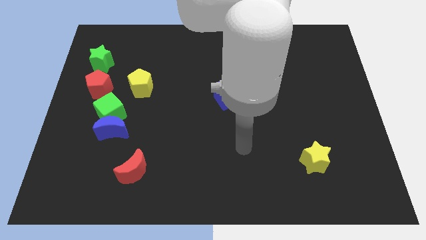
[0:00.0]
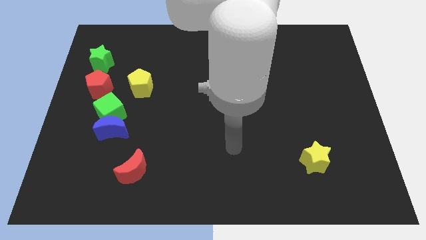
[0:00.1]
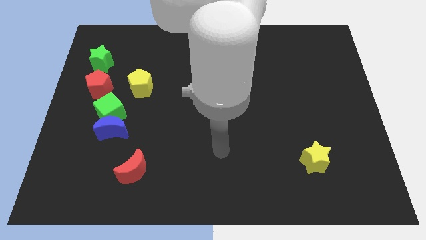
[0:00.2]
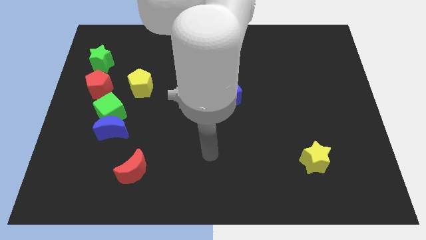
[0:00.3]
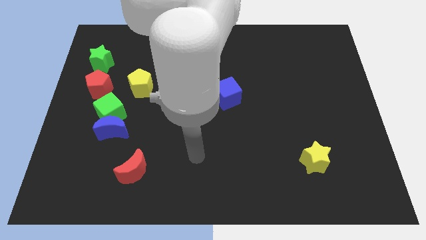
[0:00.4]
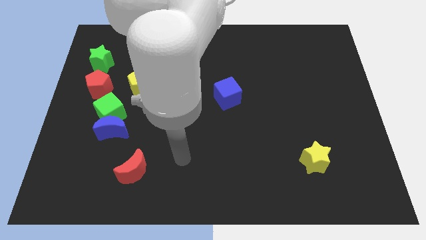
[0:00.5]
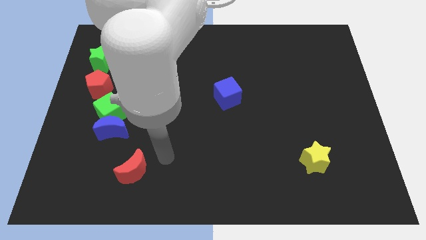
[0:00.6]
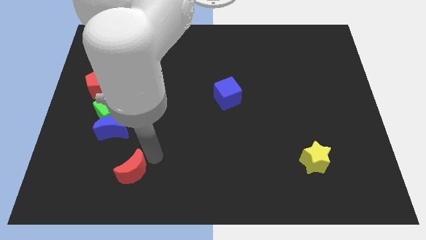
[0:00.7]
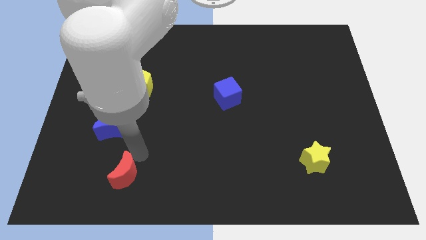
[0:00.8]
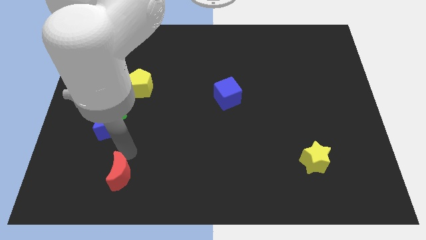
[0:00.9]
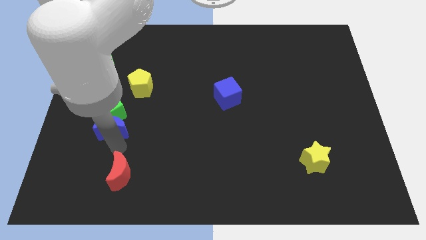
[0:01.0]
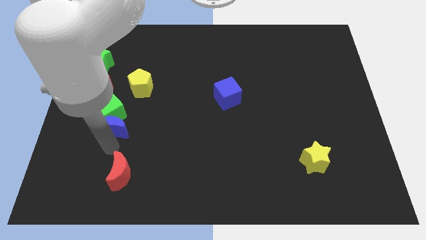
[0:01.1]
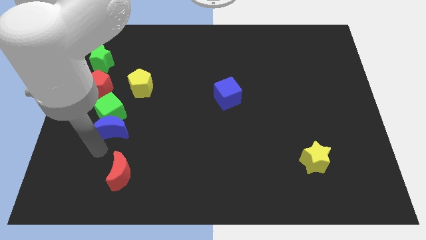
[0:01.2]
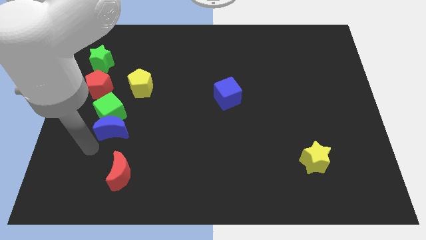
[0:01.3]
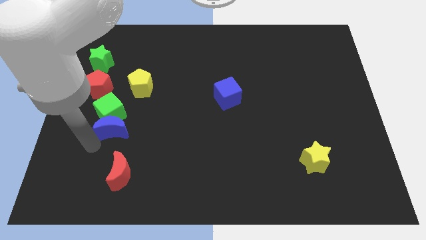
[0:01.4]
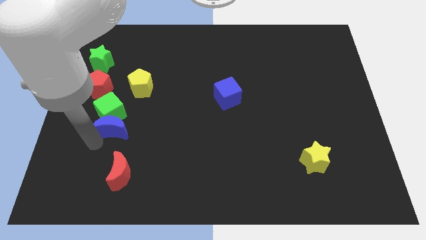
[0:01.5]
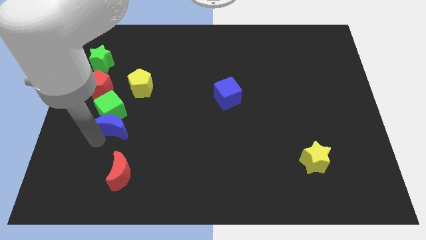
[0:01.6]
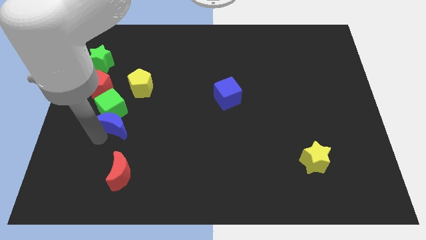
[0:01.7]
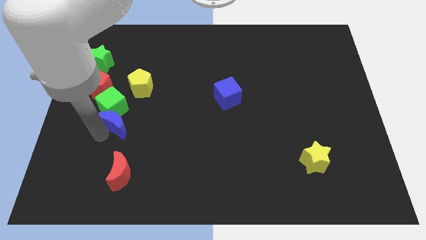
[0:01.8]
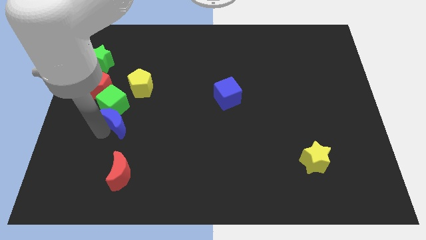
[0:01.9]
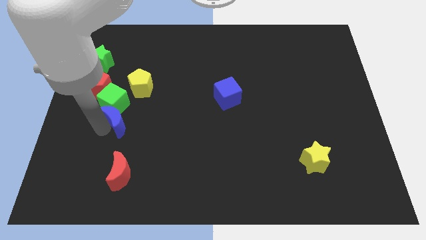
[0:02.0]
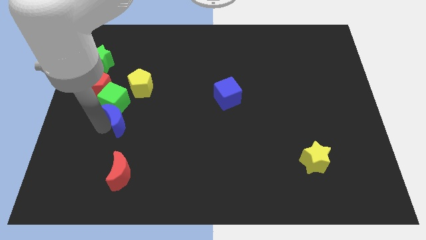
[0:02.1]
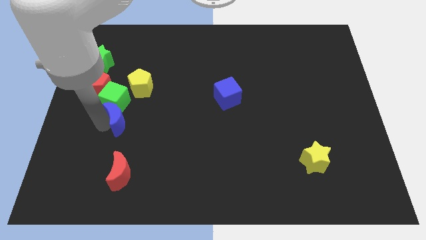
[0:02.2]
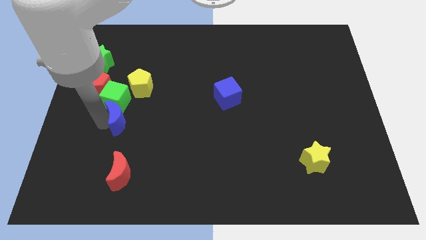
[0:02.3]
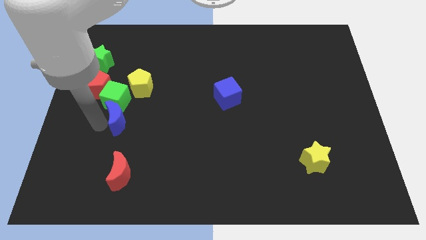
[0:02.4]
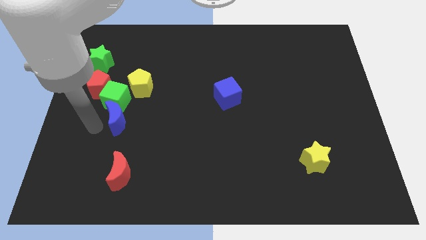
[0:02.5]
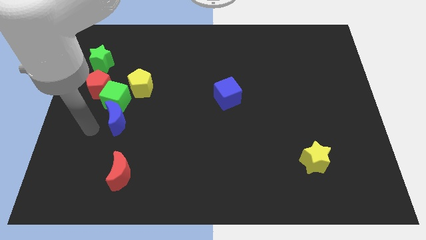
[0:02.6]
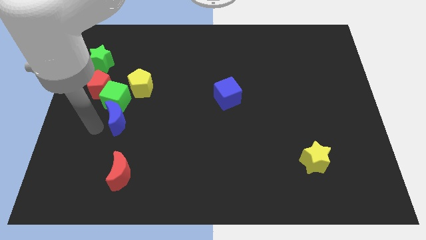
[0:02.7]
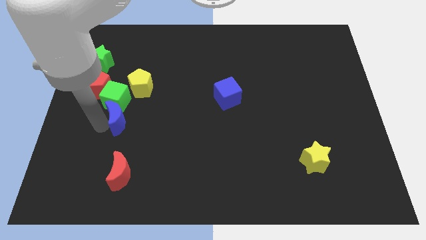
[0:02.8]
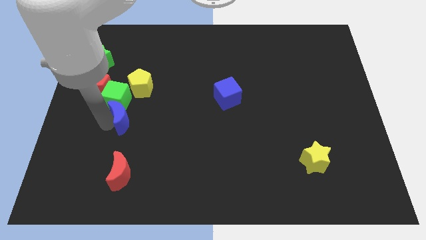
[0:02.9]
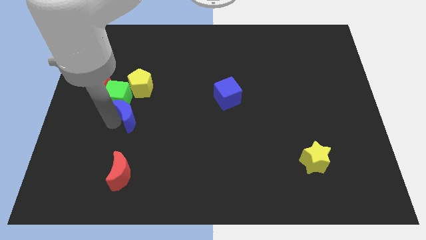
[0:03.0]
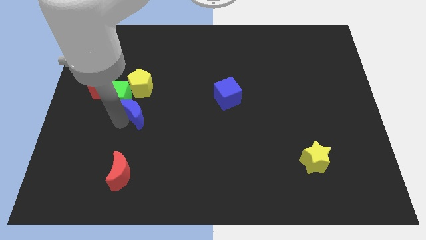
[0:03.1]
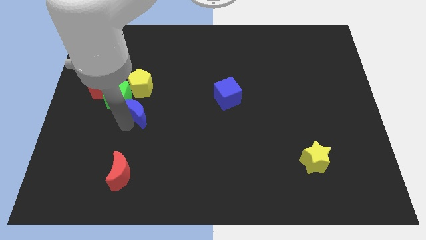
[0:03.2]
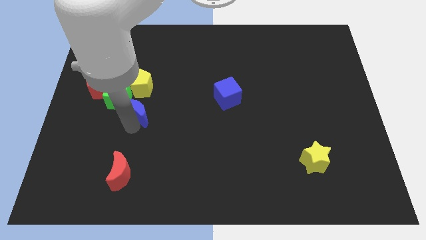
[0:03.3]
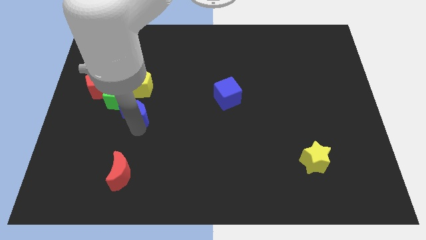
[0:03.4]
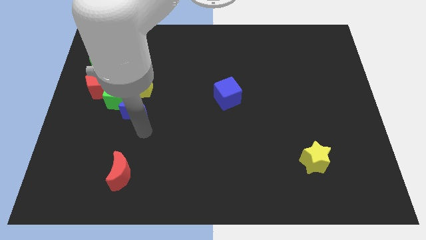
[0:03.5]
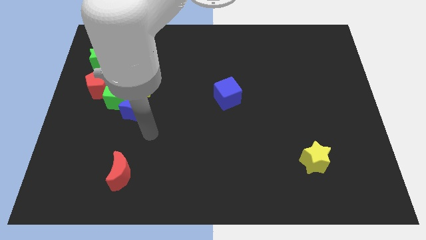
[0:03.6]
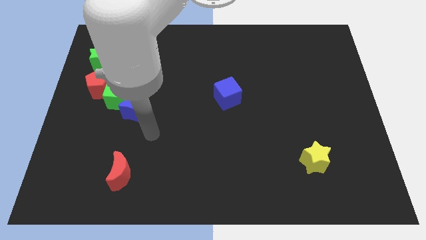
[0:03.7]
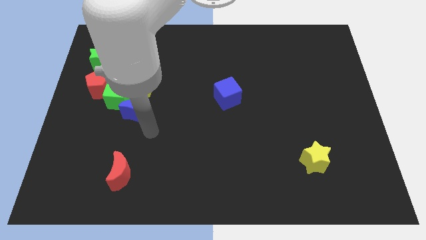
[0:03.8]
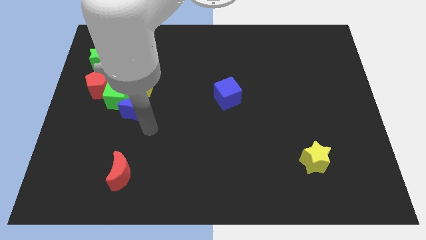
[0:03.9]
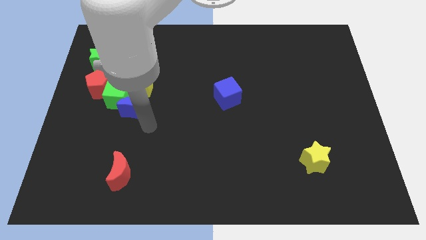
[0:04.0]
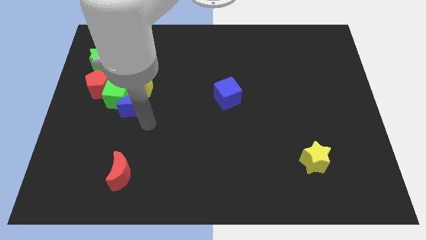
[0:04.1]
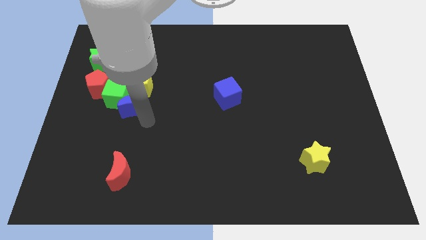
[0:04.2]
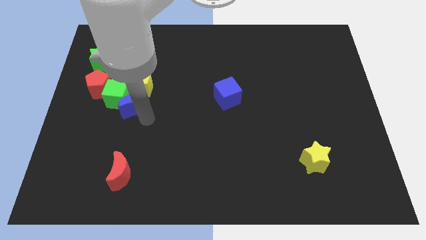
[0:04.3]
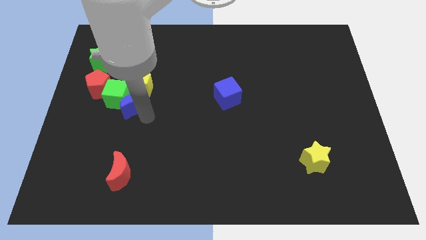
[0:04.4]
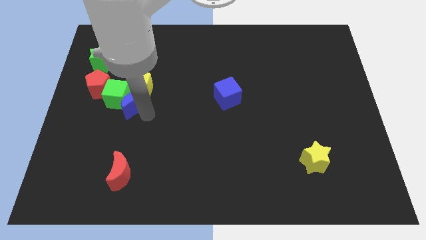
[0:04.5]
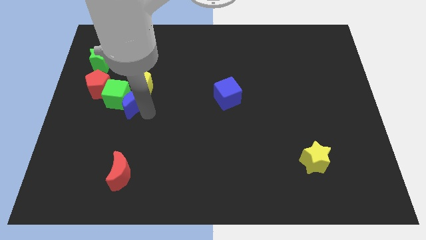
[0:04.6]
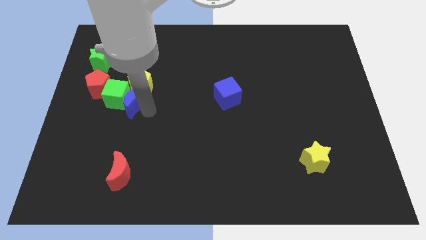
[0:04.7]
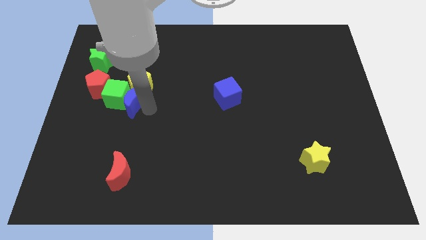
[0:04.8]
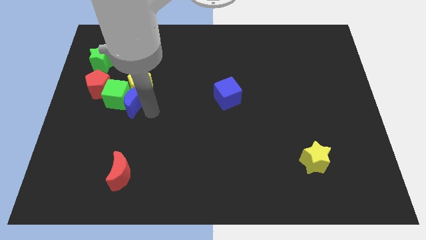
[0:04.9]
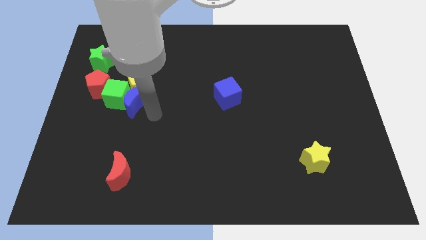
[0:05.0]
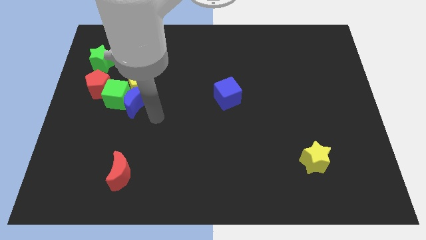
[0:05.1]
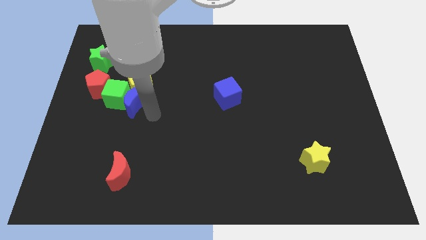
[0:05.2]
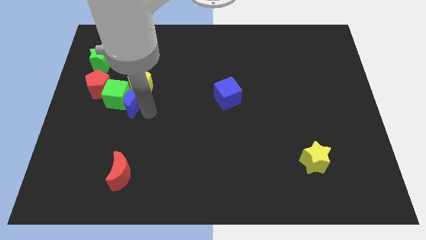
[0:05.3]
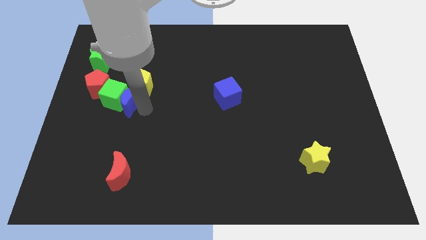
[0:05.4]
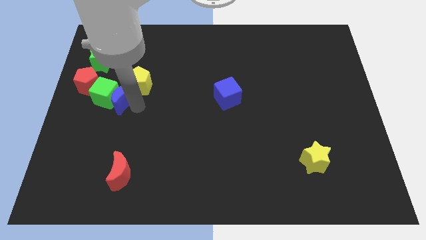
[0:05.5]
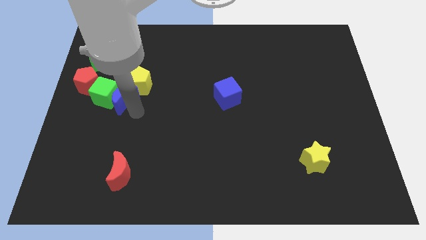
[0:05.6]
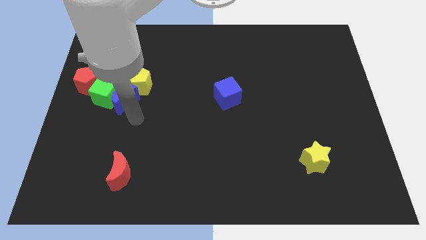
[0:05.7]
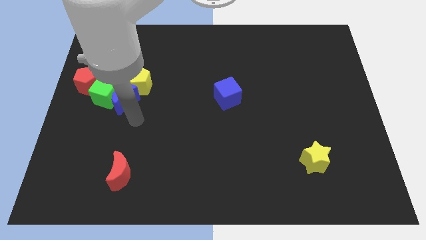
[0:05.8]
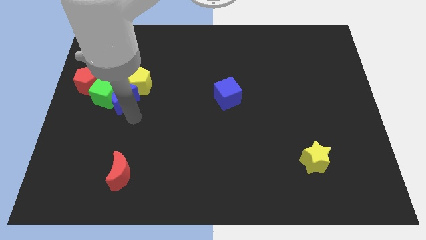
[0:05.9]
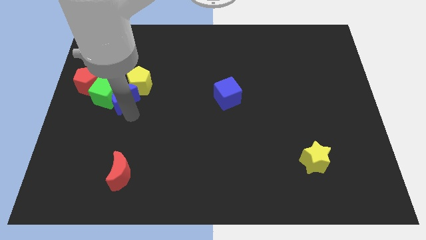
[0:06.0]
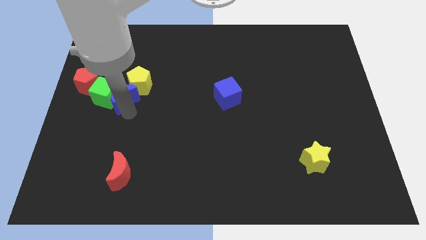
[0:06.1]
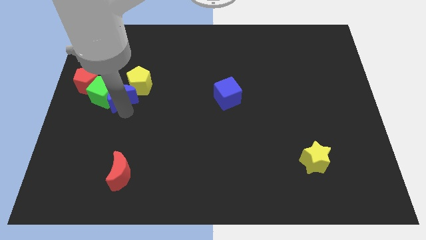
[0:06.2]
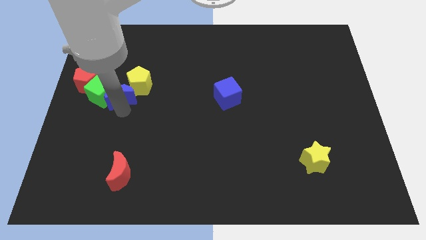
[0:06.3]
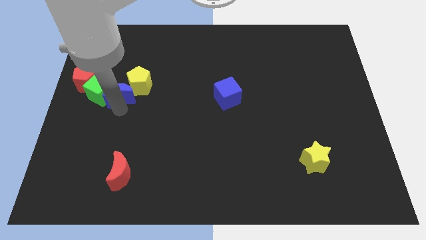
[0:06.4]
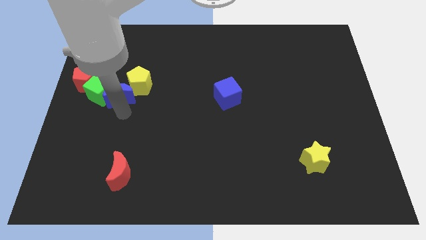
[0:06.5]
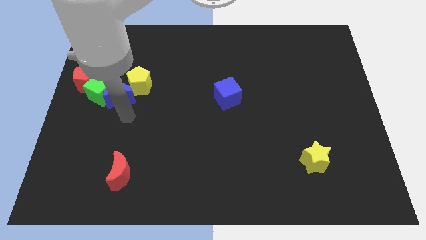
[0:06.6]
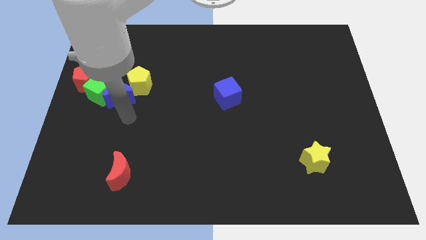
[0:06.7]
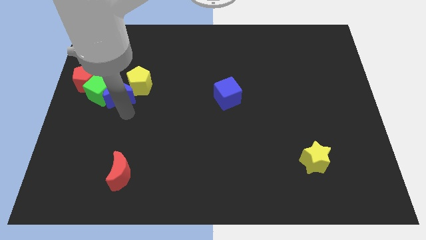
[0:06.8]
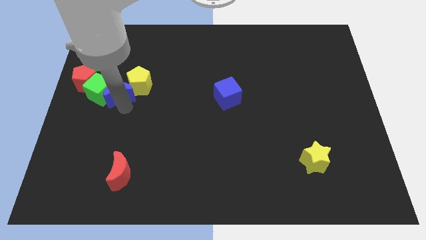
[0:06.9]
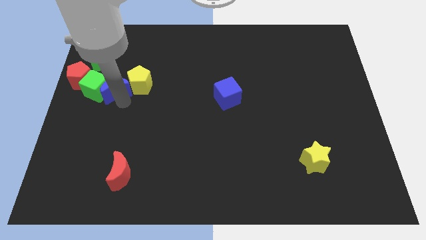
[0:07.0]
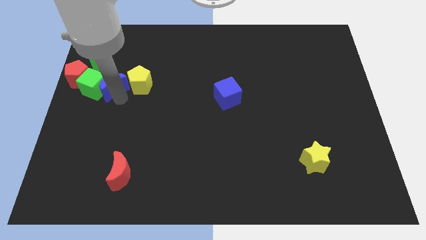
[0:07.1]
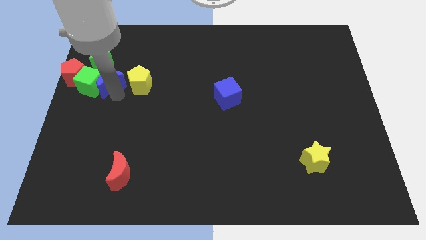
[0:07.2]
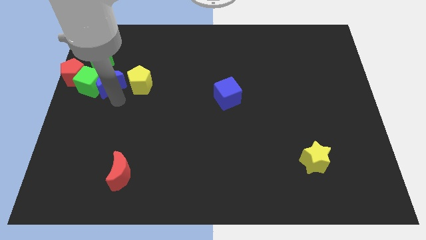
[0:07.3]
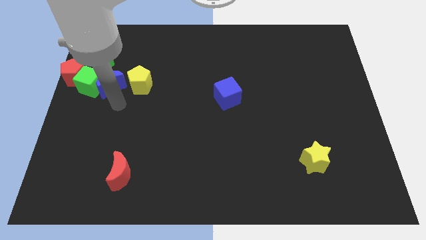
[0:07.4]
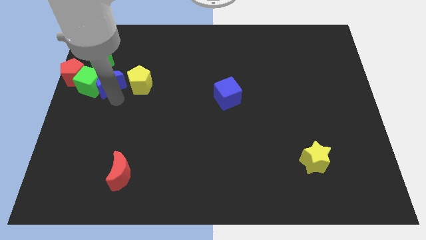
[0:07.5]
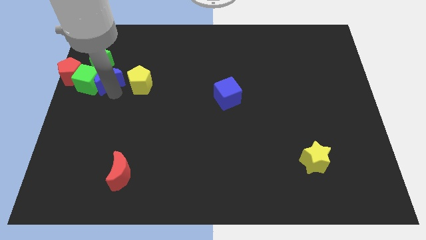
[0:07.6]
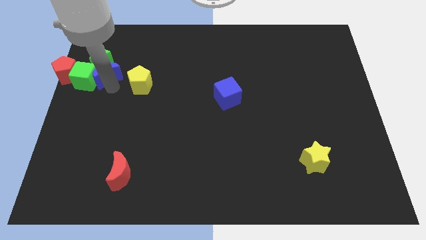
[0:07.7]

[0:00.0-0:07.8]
move the blue moon to the green star
